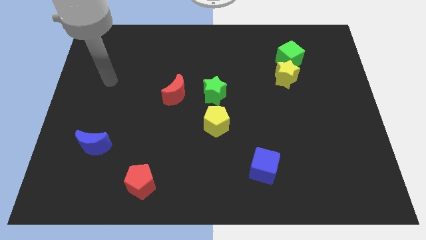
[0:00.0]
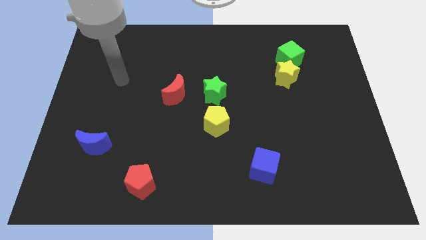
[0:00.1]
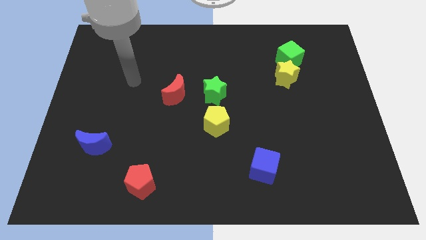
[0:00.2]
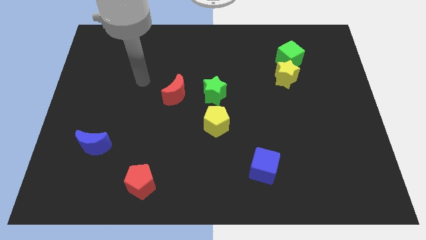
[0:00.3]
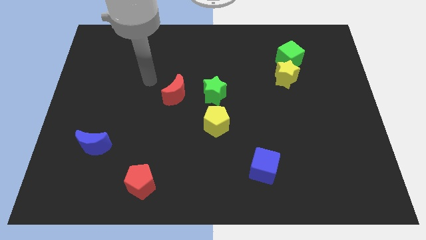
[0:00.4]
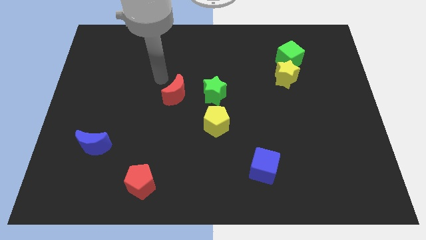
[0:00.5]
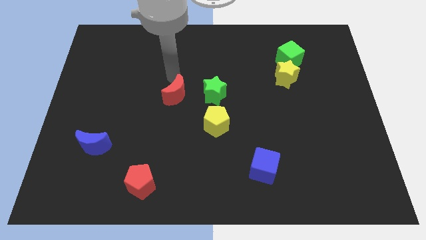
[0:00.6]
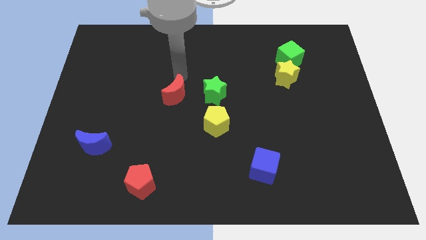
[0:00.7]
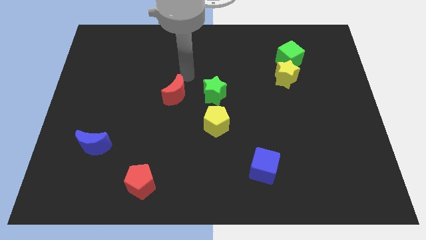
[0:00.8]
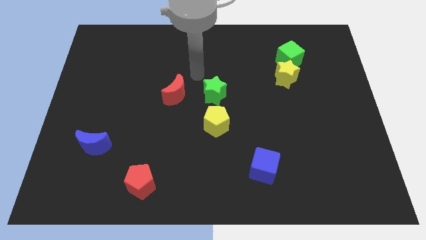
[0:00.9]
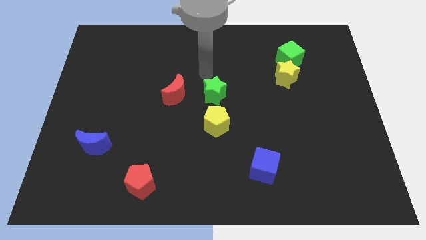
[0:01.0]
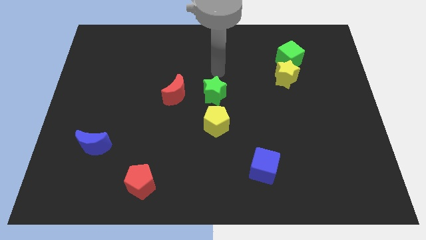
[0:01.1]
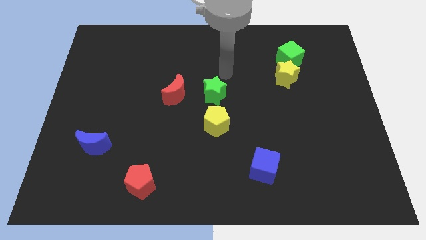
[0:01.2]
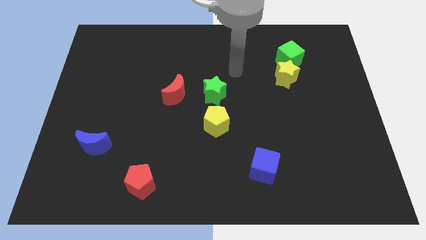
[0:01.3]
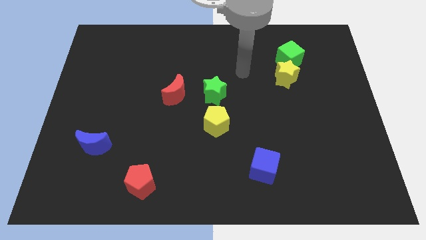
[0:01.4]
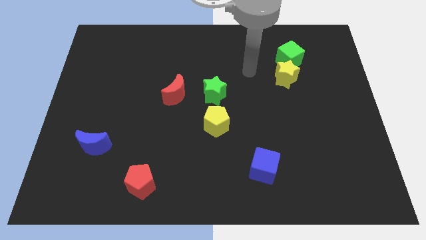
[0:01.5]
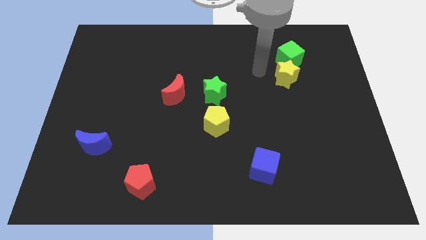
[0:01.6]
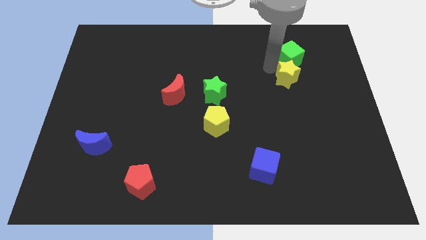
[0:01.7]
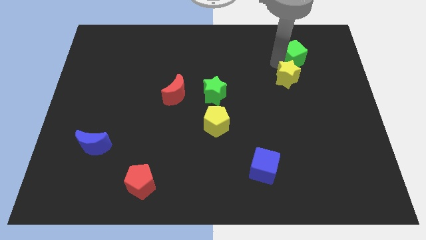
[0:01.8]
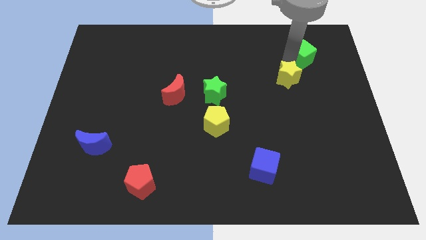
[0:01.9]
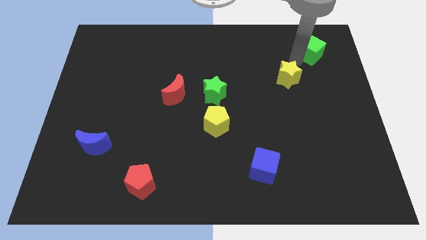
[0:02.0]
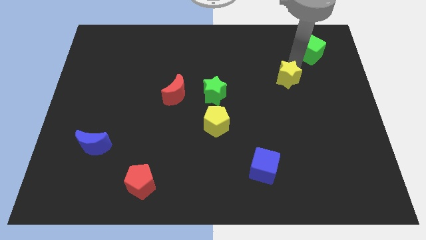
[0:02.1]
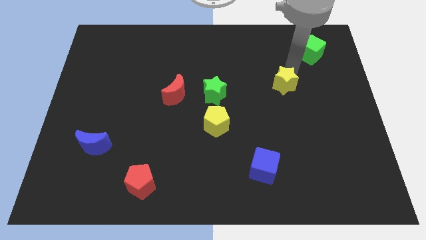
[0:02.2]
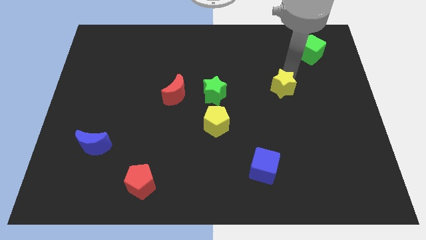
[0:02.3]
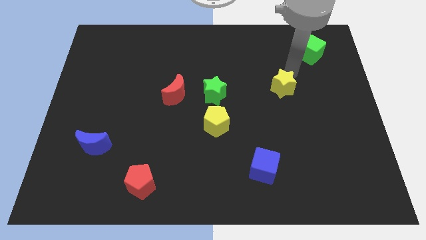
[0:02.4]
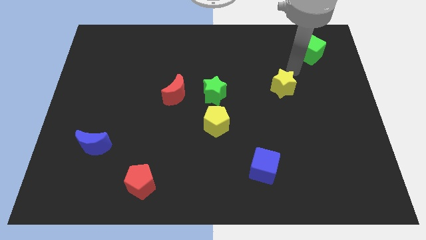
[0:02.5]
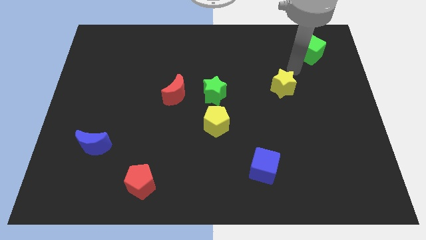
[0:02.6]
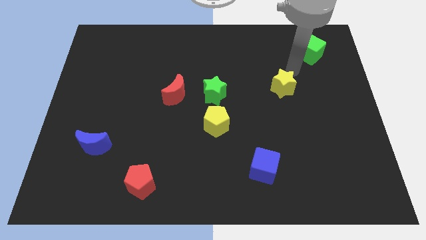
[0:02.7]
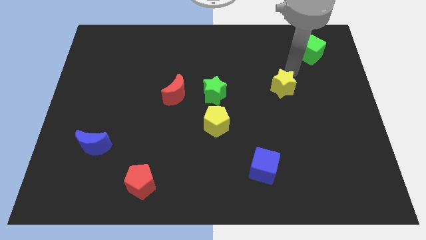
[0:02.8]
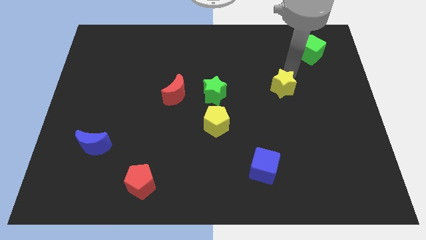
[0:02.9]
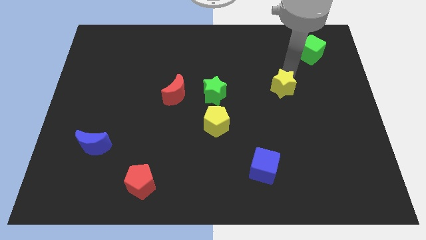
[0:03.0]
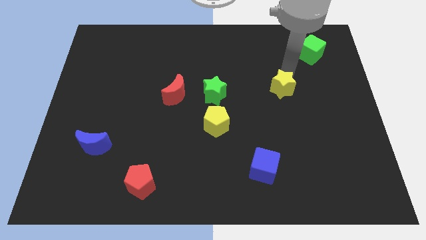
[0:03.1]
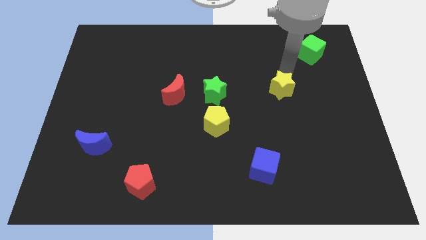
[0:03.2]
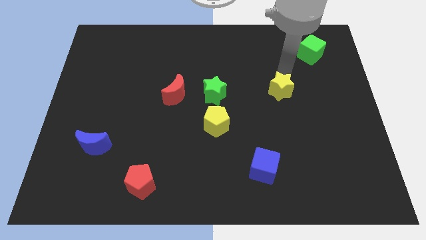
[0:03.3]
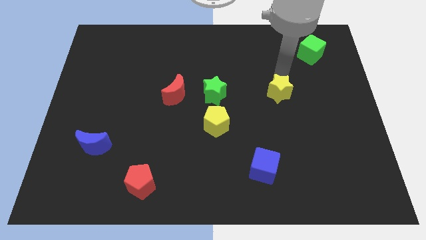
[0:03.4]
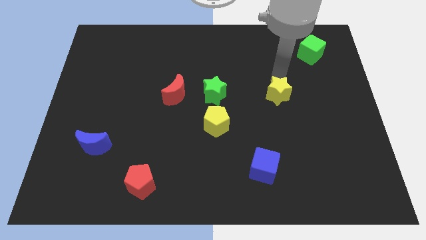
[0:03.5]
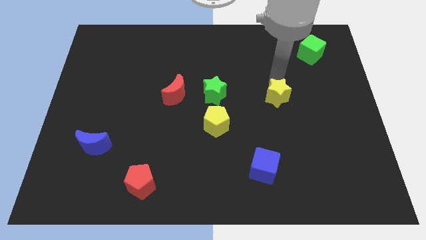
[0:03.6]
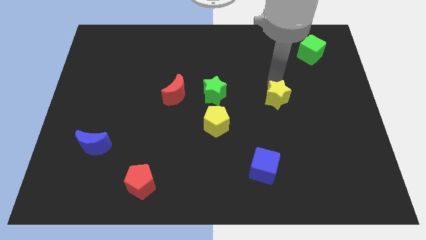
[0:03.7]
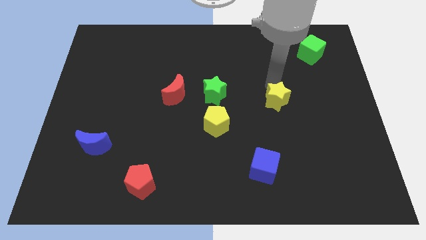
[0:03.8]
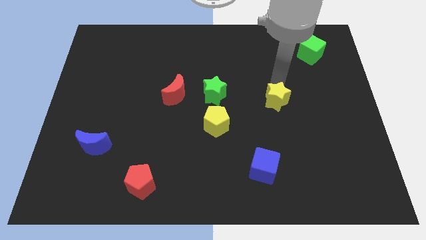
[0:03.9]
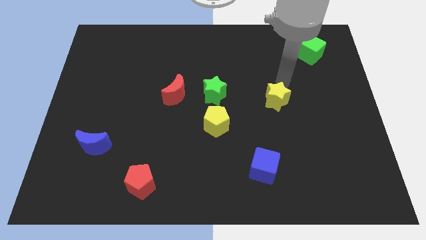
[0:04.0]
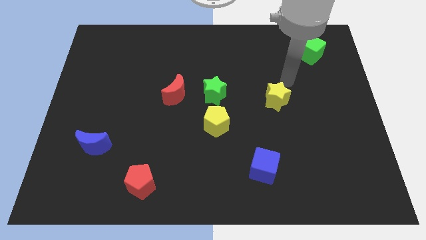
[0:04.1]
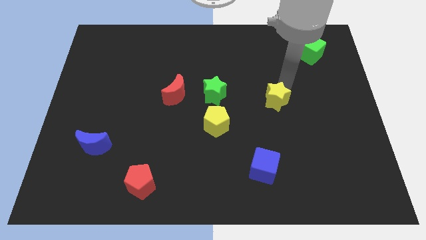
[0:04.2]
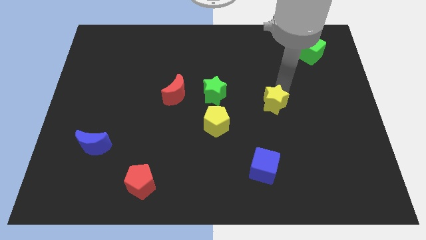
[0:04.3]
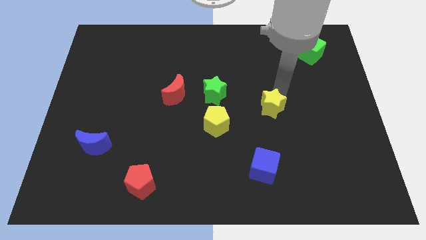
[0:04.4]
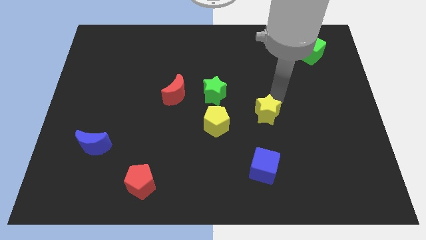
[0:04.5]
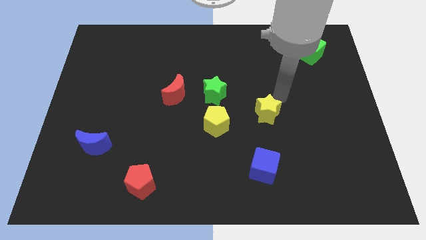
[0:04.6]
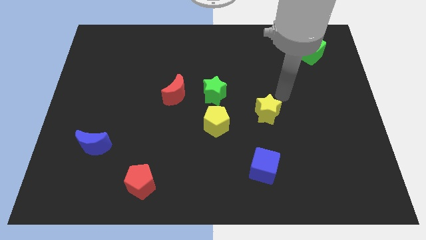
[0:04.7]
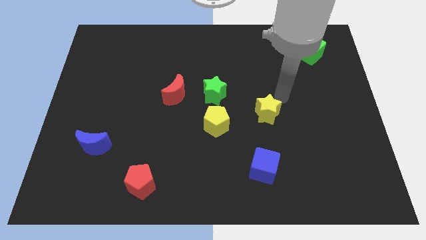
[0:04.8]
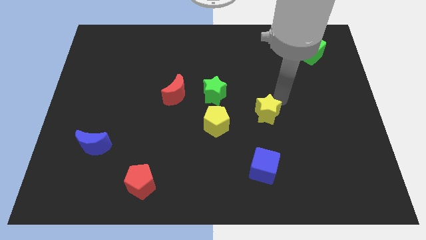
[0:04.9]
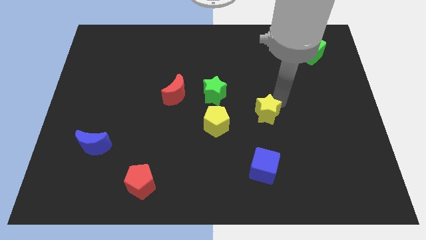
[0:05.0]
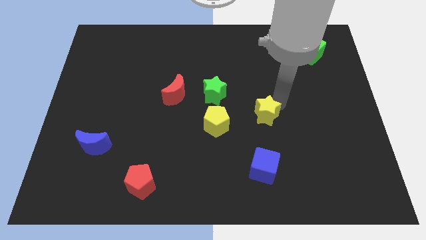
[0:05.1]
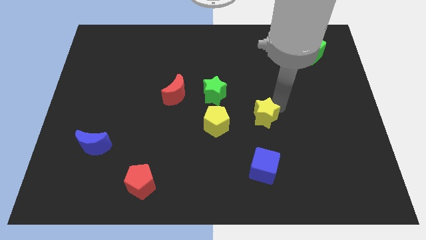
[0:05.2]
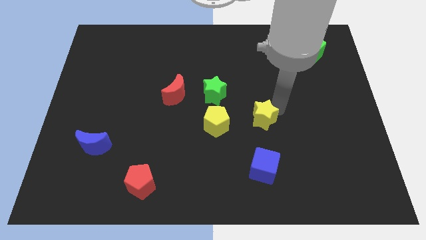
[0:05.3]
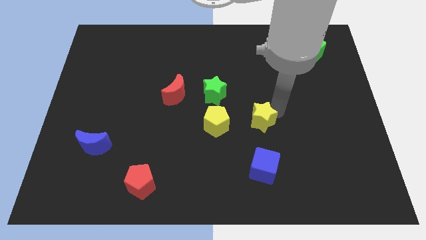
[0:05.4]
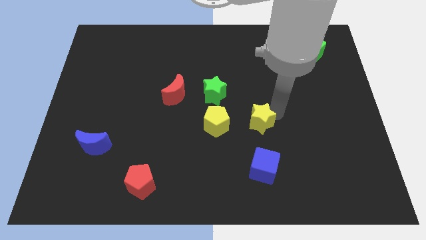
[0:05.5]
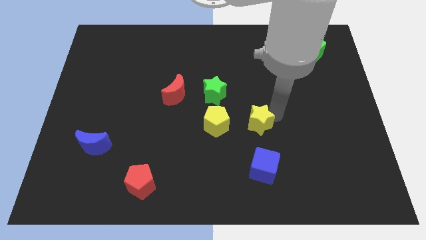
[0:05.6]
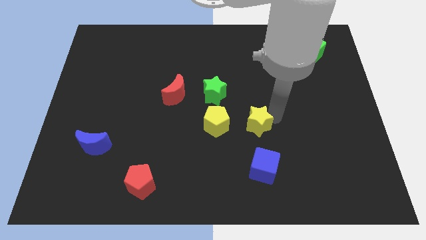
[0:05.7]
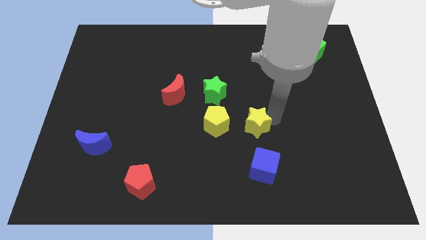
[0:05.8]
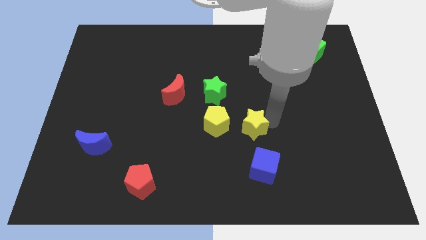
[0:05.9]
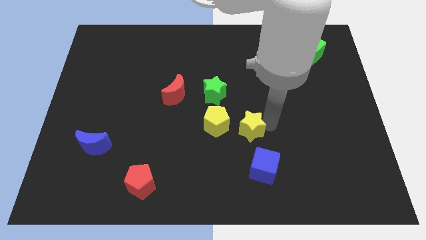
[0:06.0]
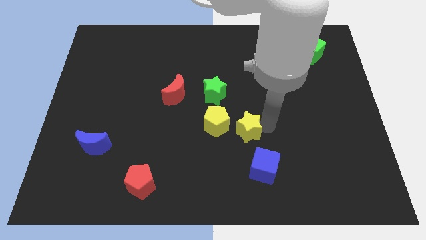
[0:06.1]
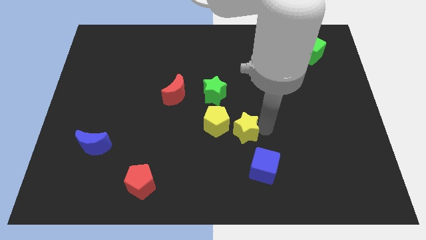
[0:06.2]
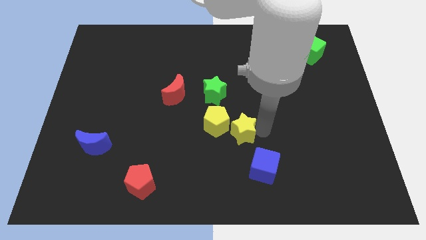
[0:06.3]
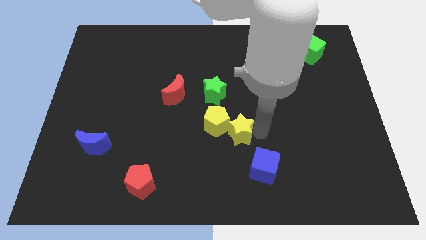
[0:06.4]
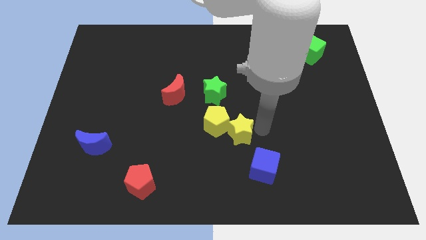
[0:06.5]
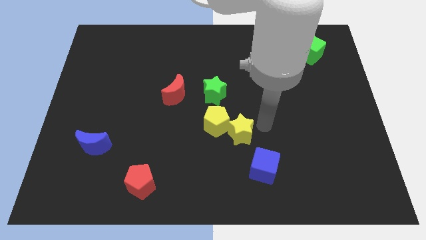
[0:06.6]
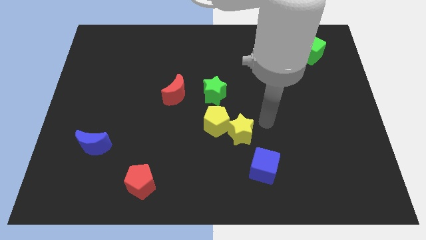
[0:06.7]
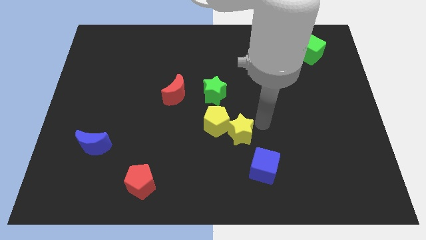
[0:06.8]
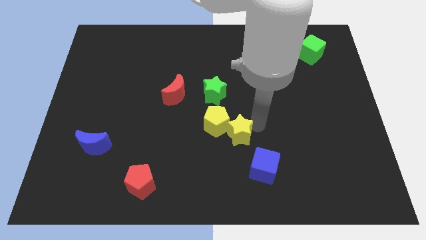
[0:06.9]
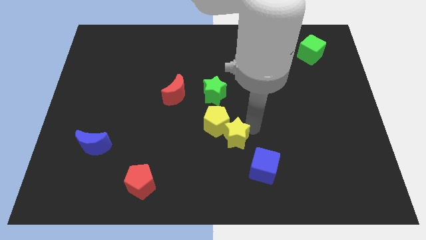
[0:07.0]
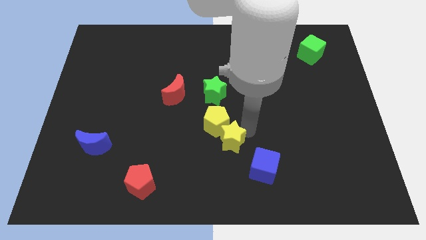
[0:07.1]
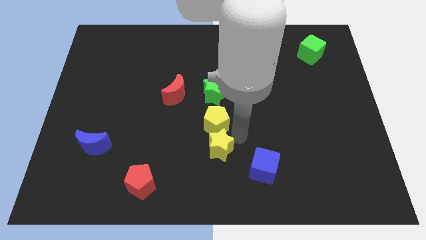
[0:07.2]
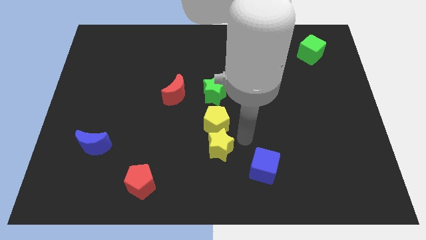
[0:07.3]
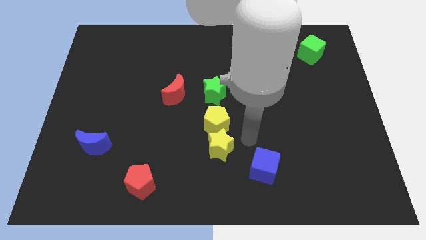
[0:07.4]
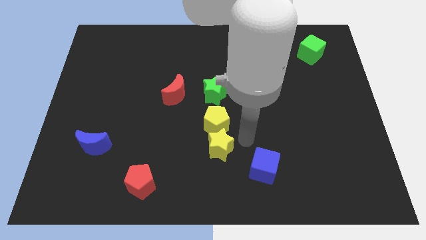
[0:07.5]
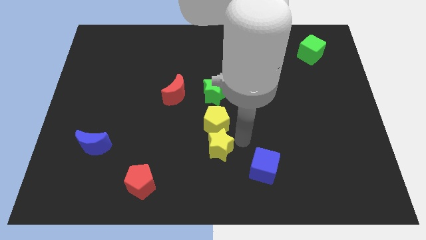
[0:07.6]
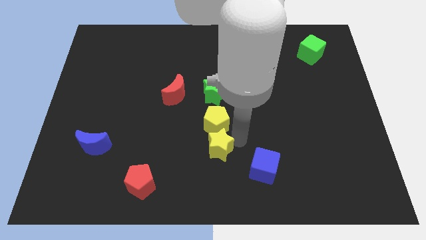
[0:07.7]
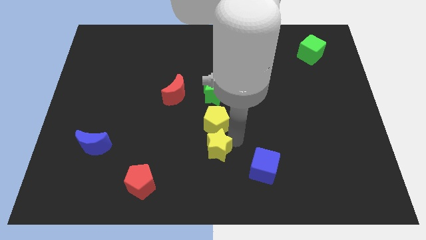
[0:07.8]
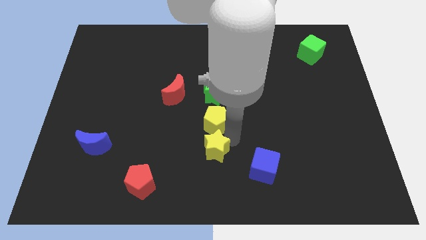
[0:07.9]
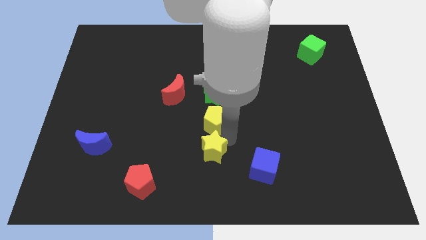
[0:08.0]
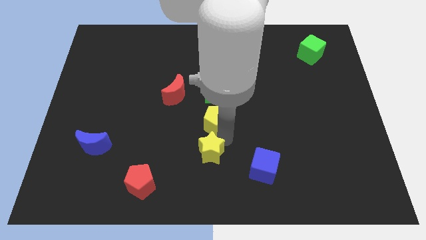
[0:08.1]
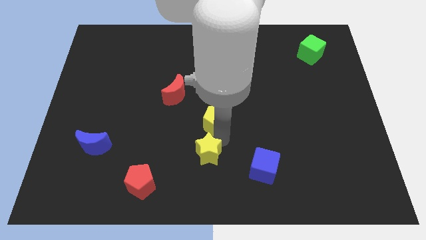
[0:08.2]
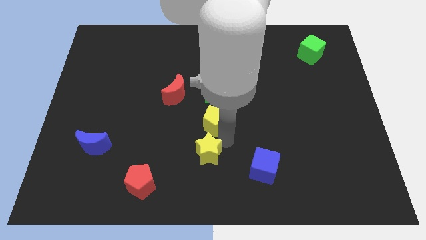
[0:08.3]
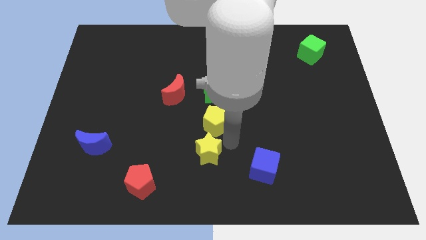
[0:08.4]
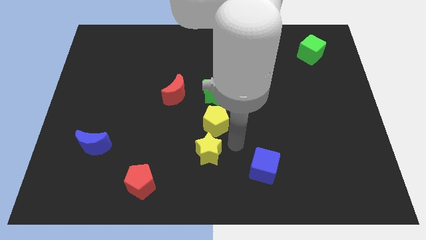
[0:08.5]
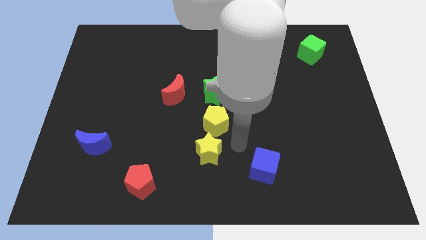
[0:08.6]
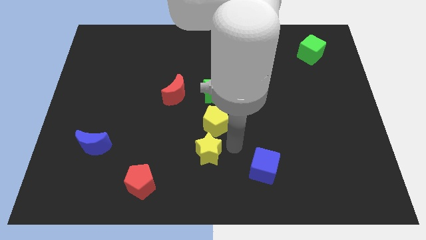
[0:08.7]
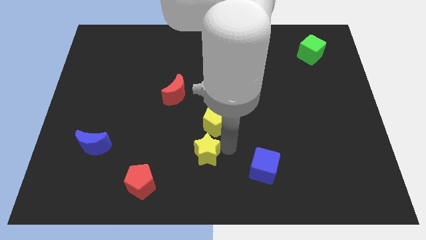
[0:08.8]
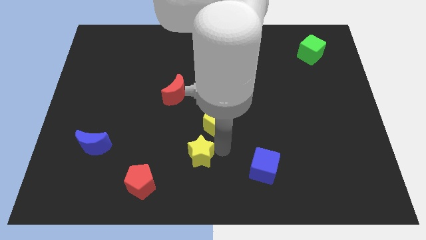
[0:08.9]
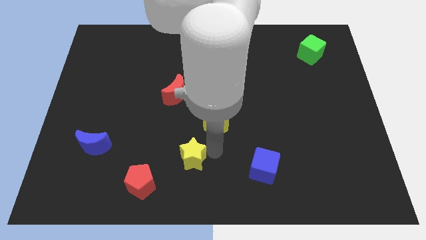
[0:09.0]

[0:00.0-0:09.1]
push the yellow star to the top right side of the red pentagon
